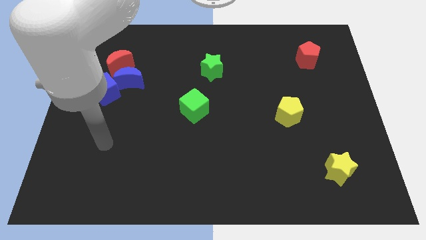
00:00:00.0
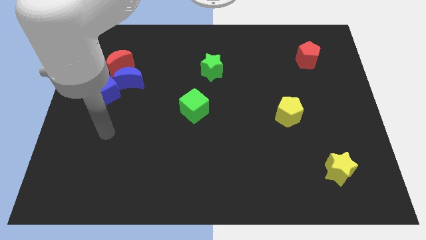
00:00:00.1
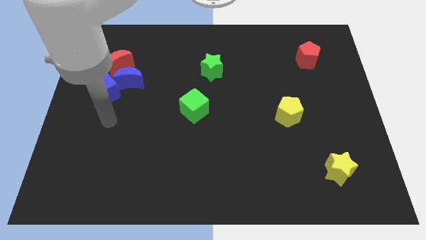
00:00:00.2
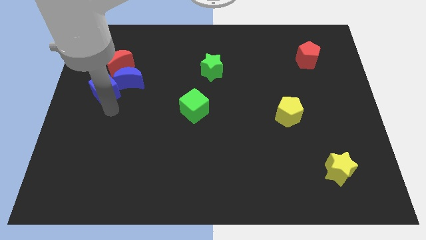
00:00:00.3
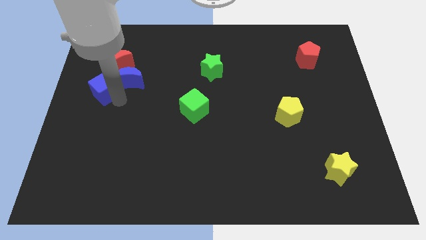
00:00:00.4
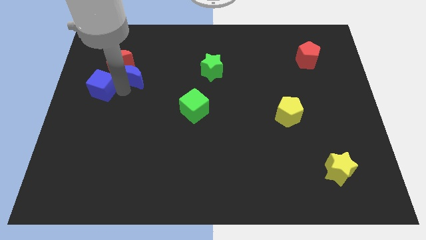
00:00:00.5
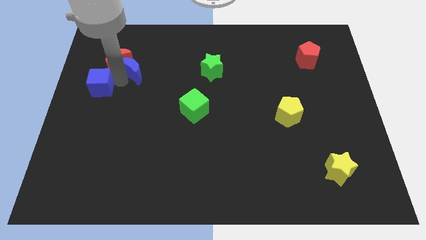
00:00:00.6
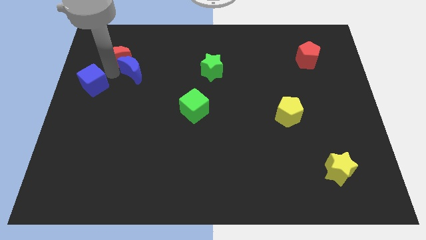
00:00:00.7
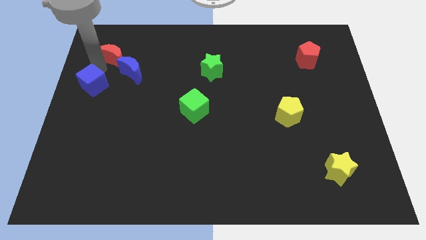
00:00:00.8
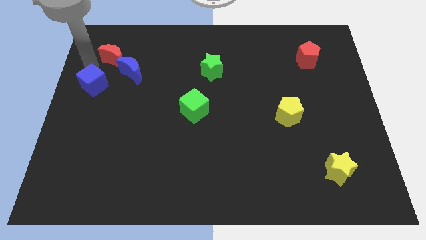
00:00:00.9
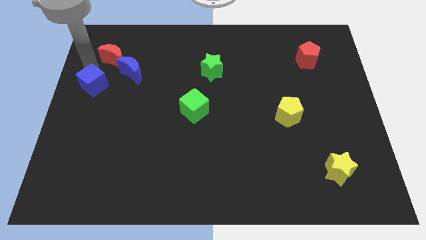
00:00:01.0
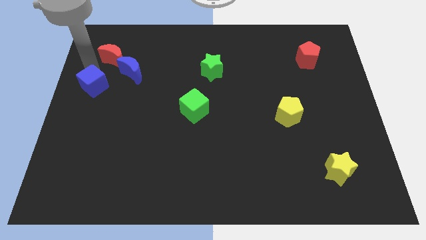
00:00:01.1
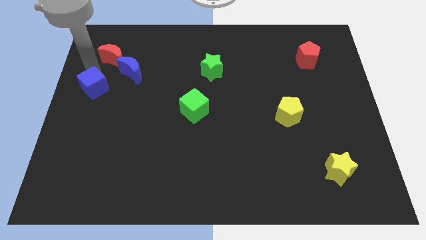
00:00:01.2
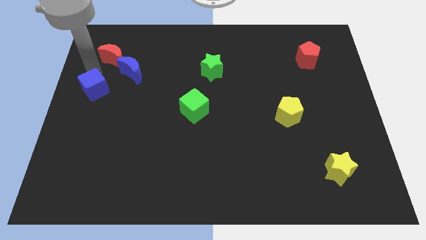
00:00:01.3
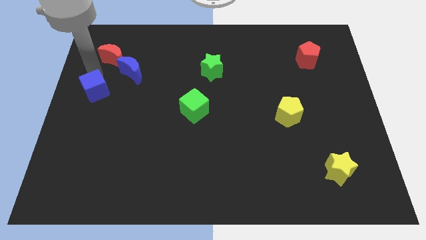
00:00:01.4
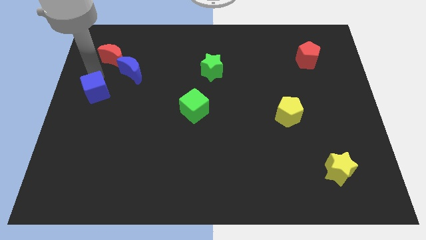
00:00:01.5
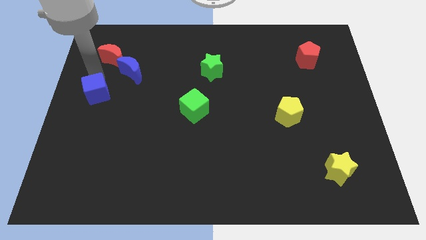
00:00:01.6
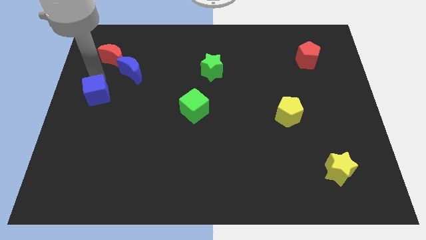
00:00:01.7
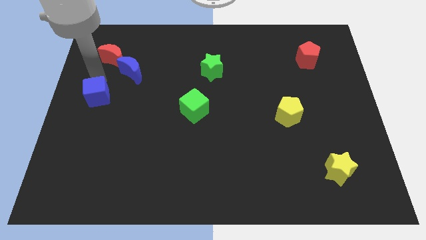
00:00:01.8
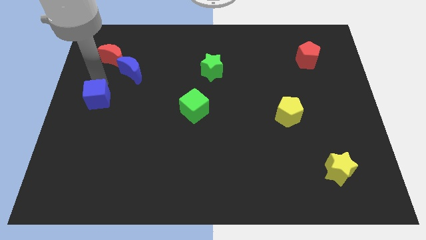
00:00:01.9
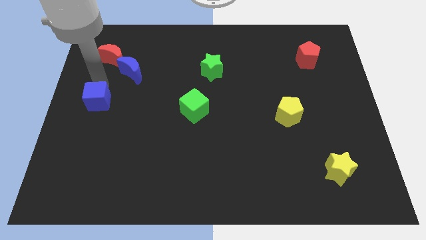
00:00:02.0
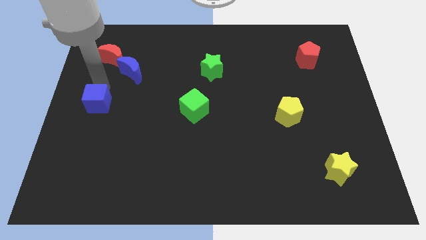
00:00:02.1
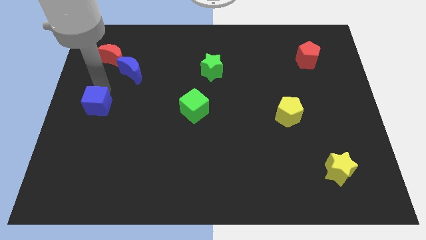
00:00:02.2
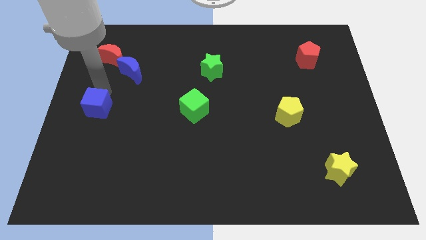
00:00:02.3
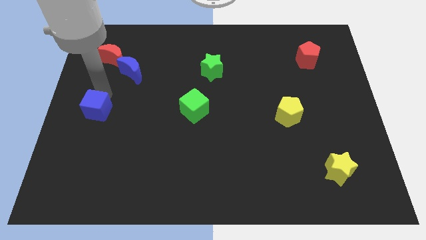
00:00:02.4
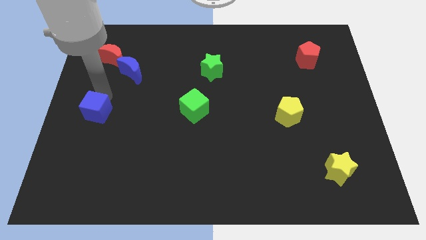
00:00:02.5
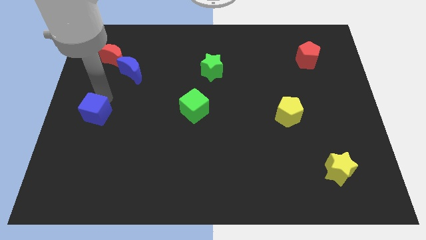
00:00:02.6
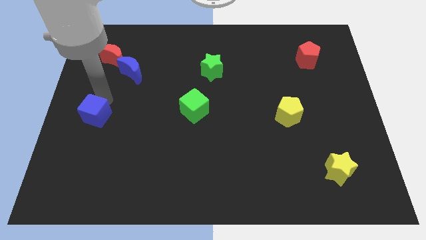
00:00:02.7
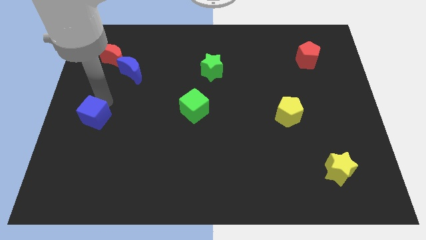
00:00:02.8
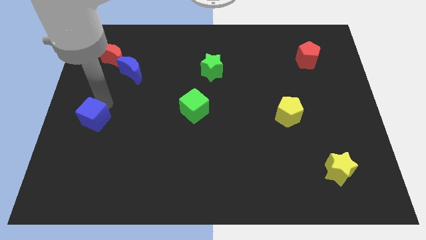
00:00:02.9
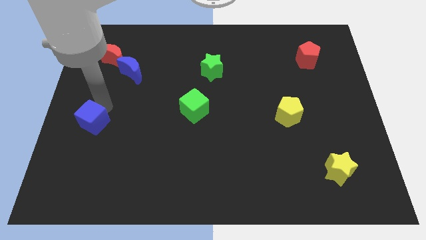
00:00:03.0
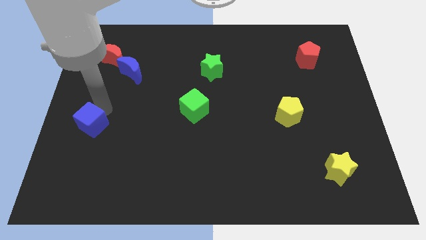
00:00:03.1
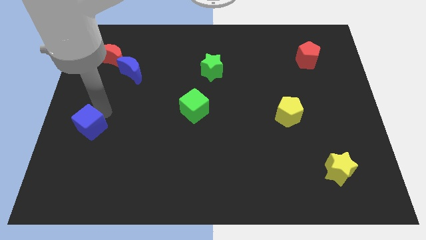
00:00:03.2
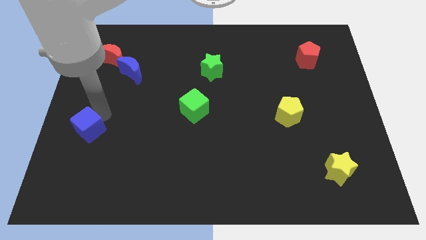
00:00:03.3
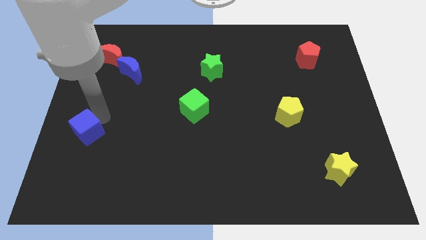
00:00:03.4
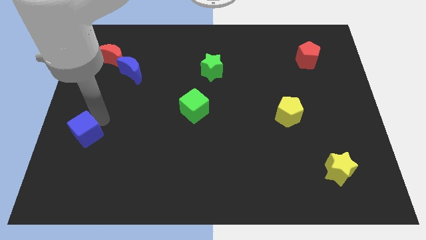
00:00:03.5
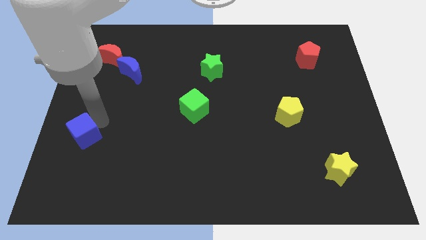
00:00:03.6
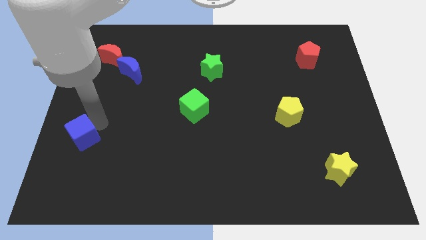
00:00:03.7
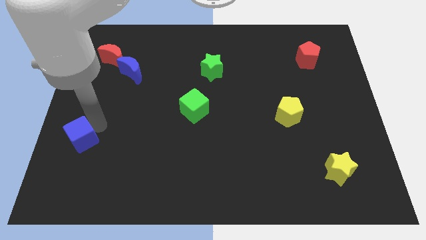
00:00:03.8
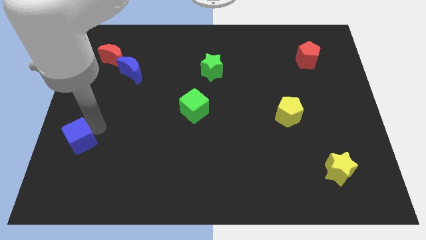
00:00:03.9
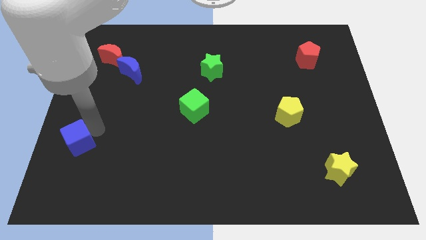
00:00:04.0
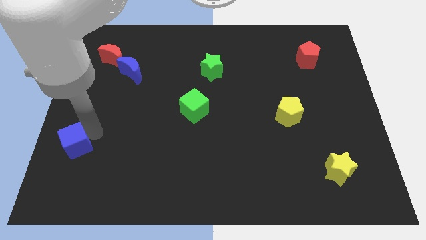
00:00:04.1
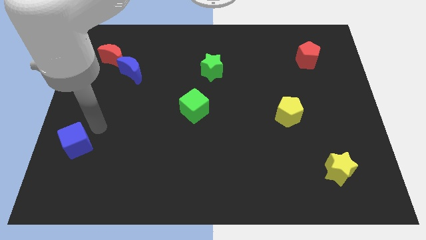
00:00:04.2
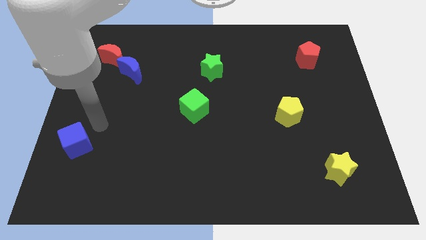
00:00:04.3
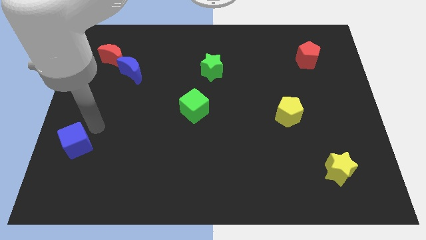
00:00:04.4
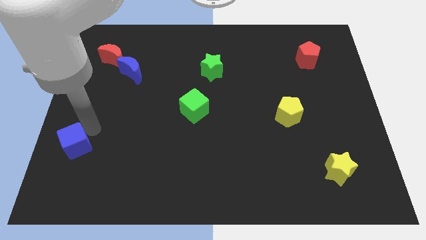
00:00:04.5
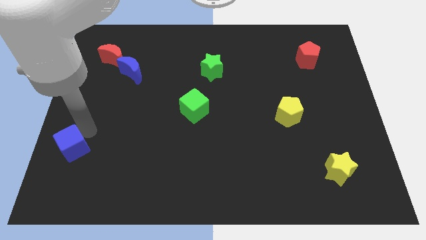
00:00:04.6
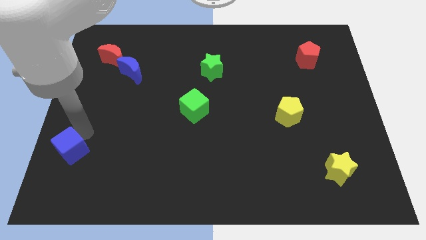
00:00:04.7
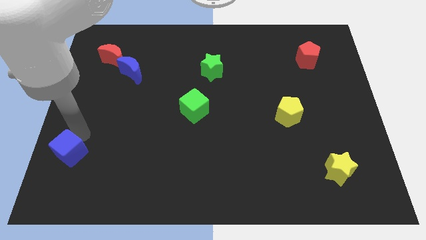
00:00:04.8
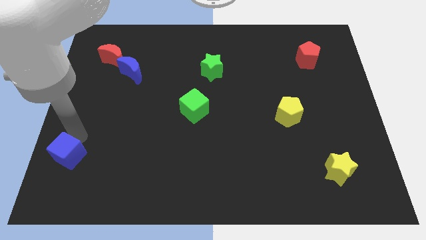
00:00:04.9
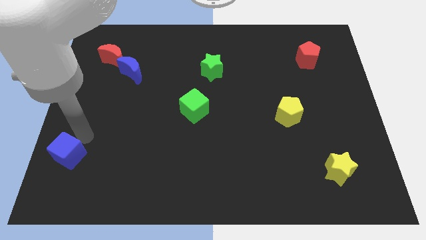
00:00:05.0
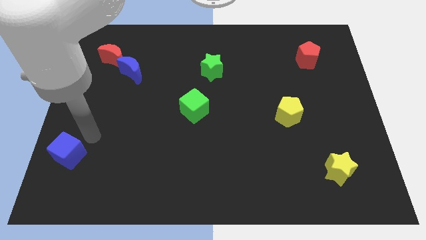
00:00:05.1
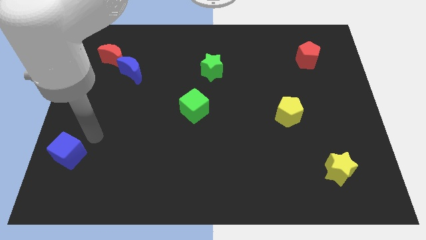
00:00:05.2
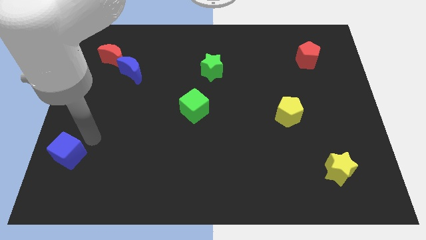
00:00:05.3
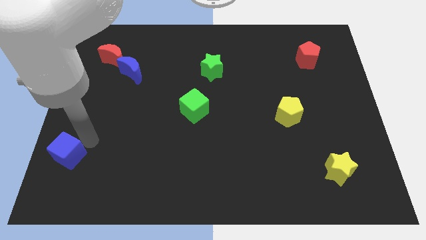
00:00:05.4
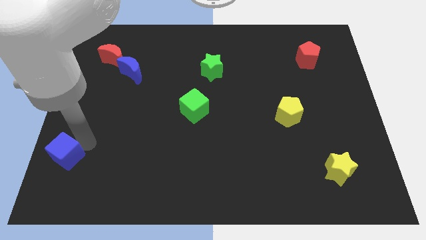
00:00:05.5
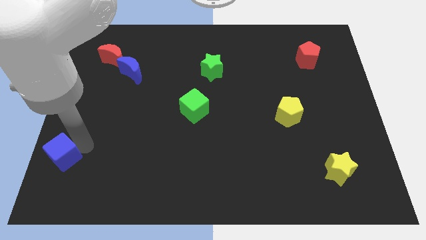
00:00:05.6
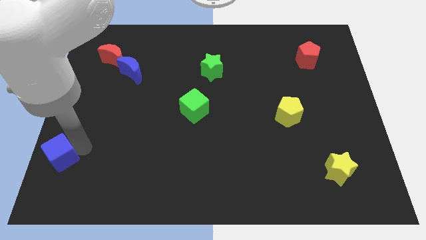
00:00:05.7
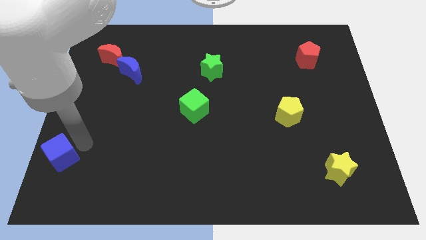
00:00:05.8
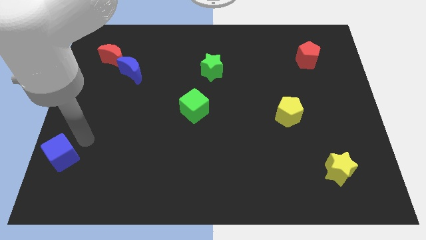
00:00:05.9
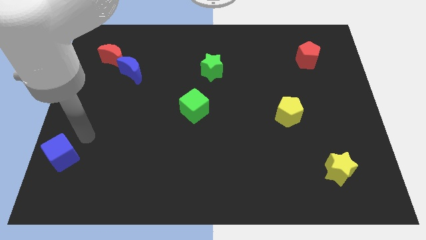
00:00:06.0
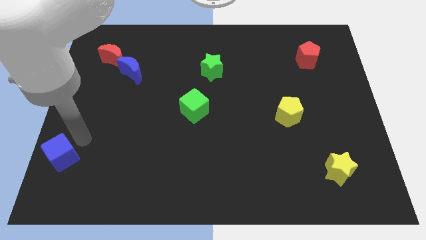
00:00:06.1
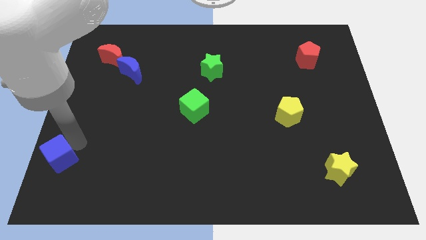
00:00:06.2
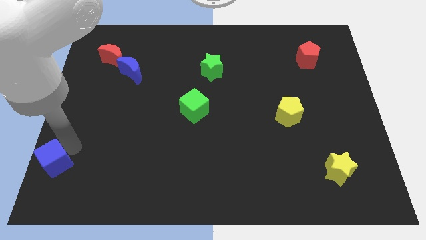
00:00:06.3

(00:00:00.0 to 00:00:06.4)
push the blue cube to the bottom left corner
